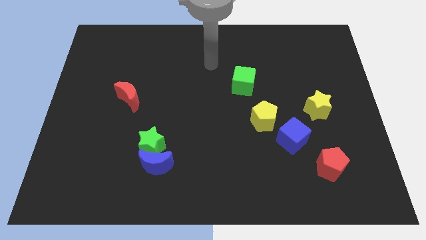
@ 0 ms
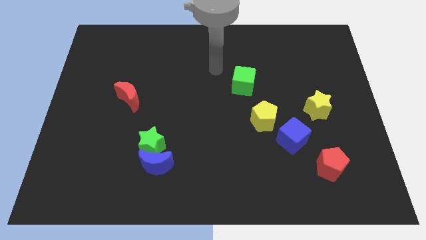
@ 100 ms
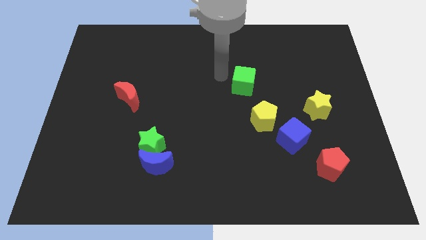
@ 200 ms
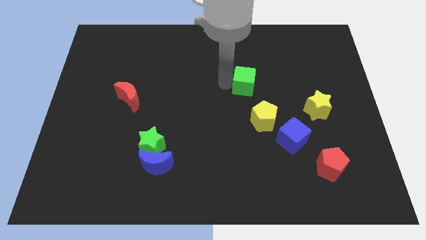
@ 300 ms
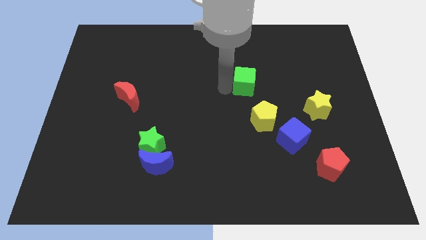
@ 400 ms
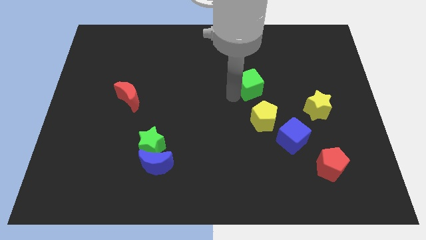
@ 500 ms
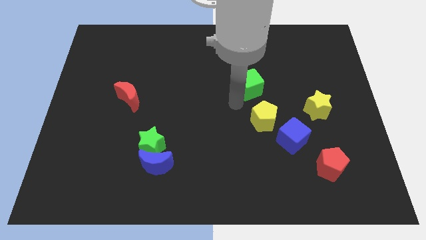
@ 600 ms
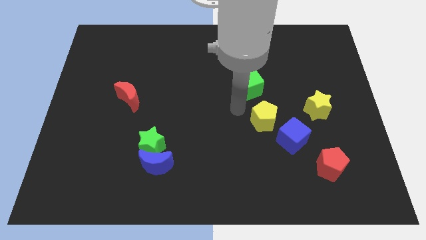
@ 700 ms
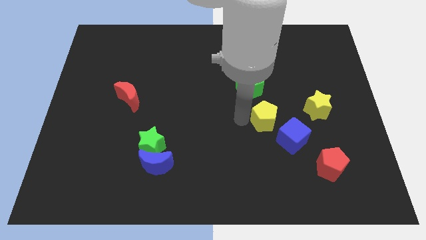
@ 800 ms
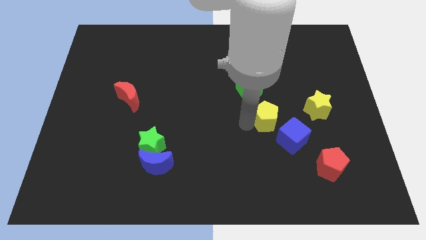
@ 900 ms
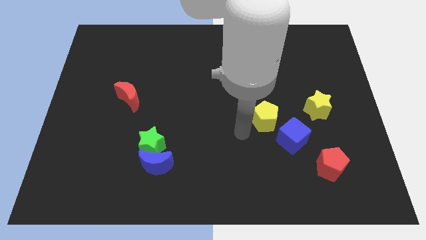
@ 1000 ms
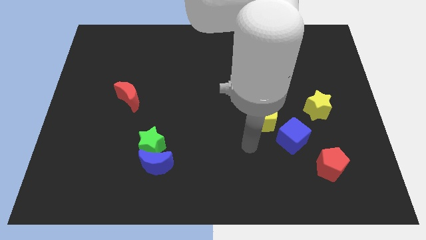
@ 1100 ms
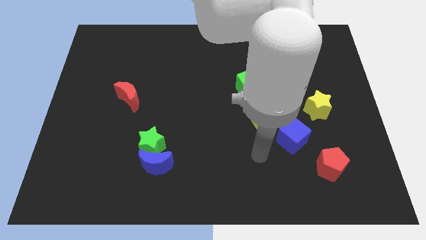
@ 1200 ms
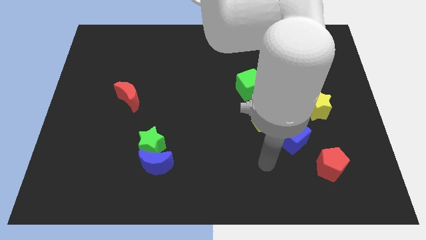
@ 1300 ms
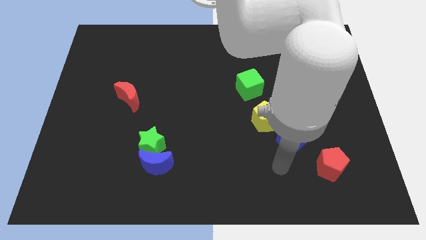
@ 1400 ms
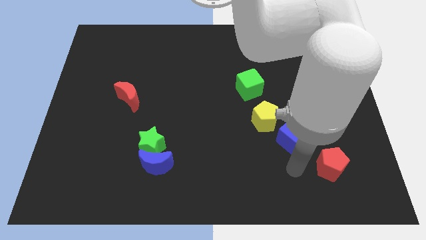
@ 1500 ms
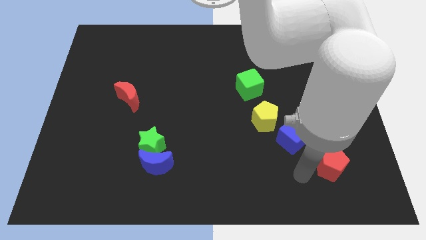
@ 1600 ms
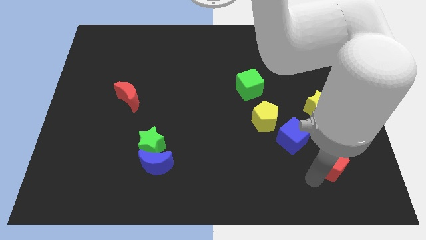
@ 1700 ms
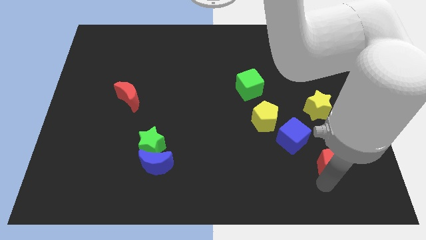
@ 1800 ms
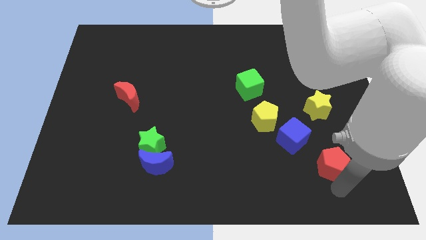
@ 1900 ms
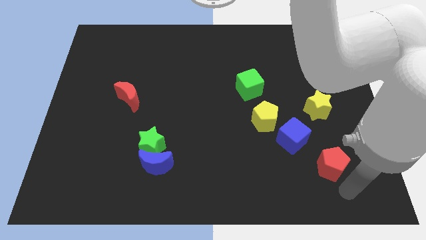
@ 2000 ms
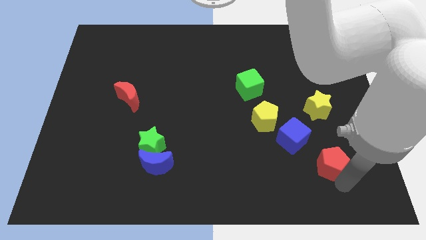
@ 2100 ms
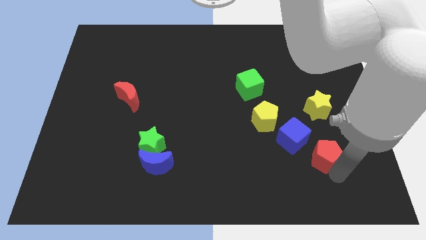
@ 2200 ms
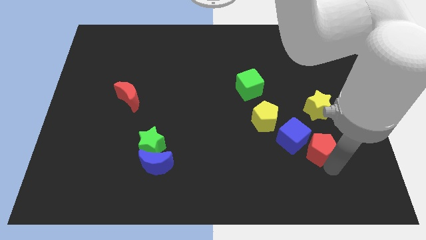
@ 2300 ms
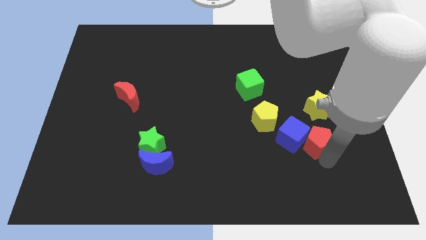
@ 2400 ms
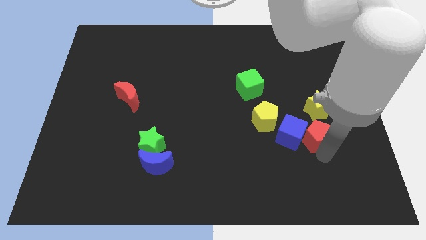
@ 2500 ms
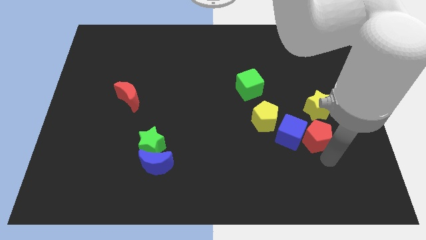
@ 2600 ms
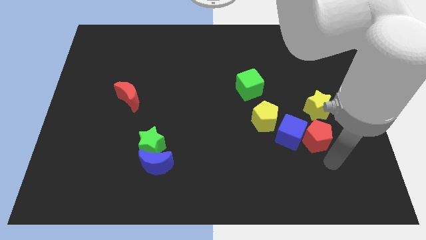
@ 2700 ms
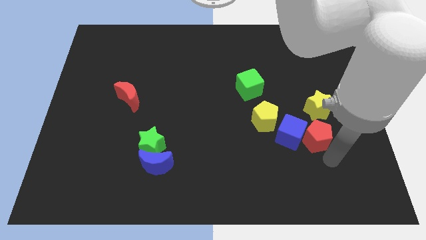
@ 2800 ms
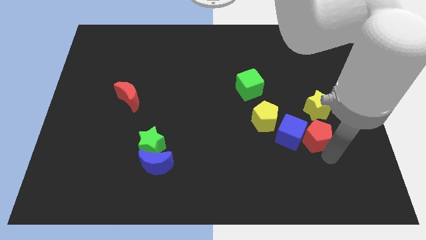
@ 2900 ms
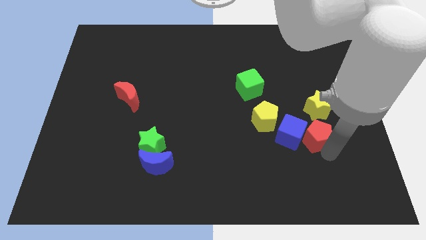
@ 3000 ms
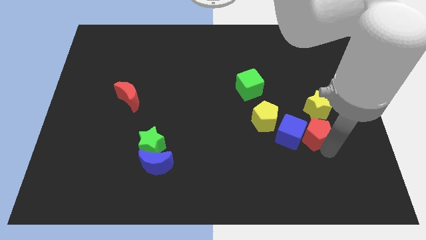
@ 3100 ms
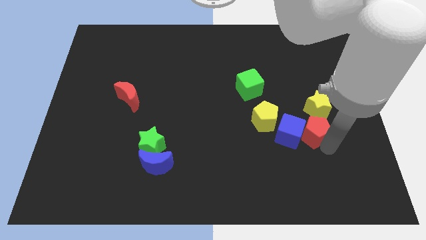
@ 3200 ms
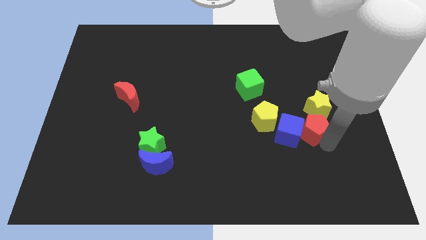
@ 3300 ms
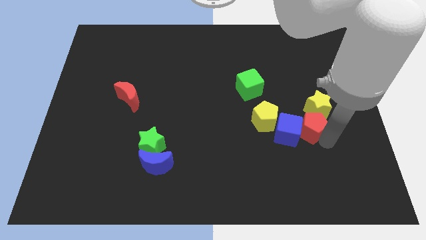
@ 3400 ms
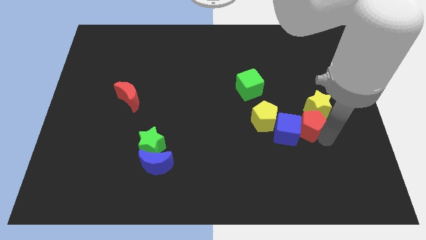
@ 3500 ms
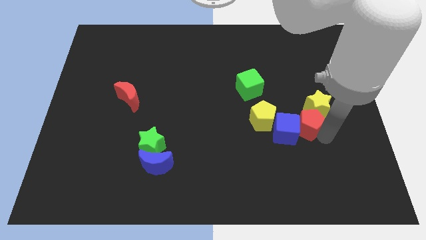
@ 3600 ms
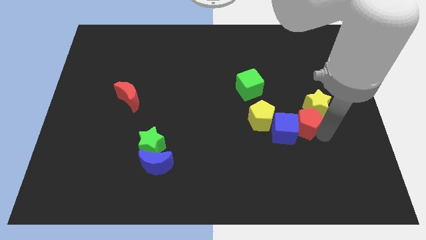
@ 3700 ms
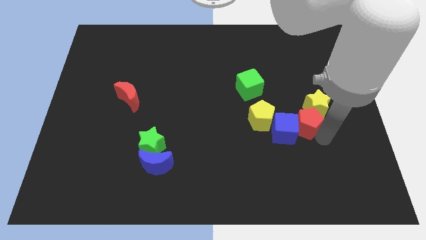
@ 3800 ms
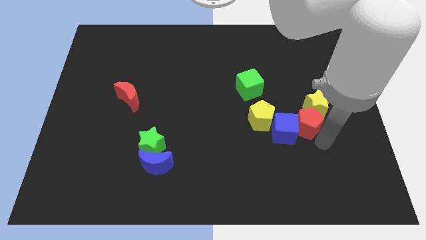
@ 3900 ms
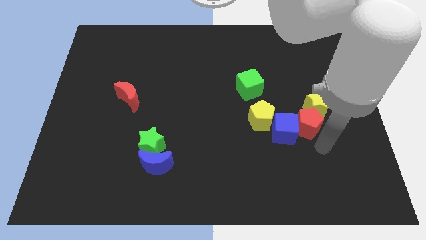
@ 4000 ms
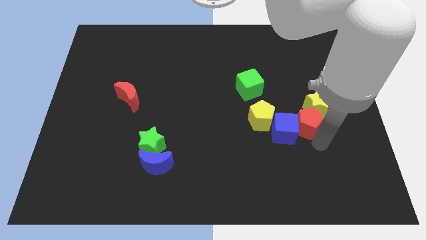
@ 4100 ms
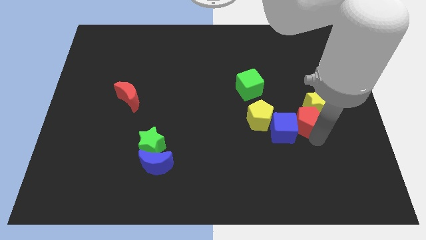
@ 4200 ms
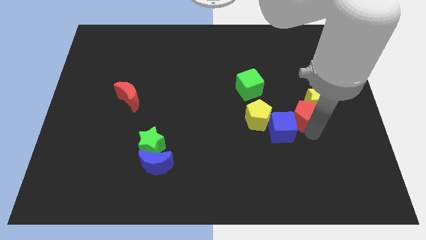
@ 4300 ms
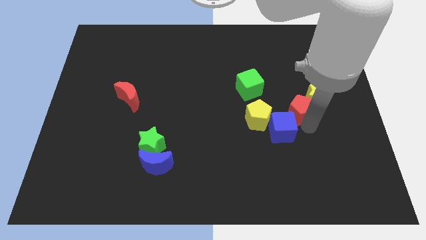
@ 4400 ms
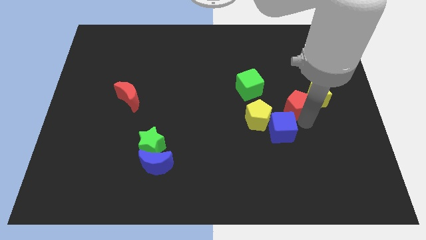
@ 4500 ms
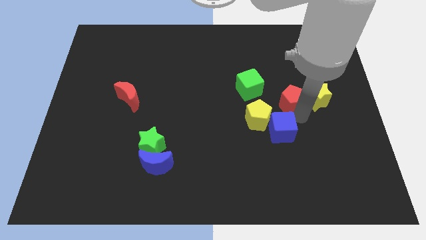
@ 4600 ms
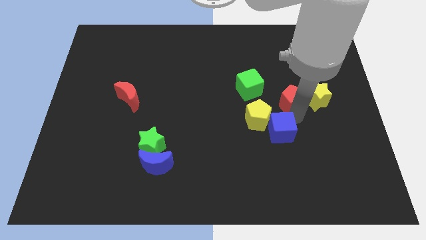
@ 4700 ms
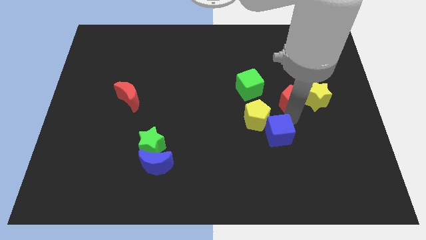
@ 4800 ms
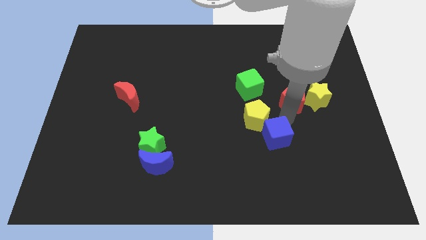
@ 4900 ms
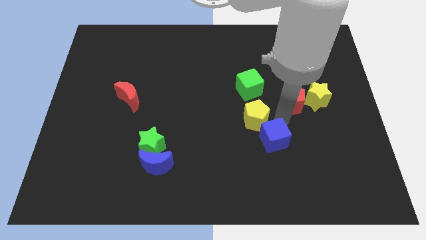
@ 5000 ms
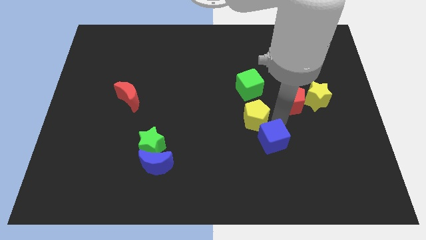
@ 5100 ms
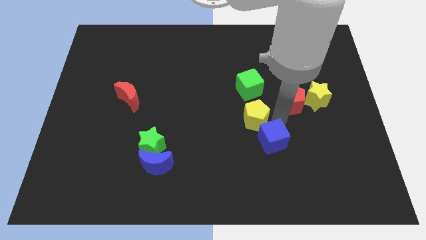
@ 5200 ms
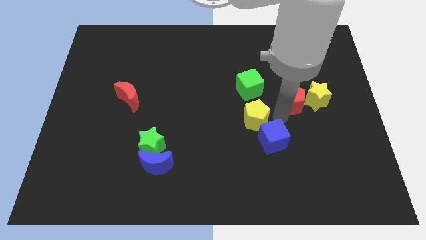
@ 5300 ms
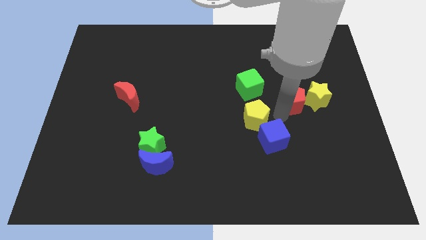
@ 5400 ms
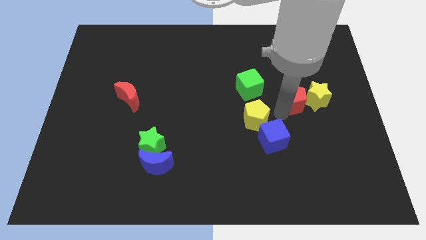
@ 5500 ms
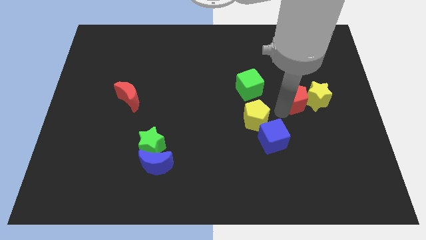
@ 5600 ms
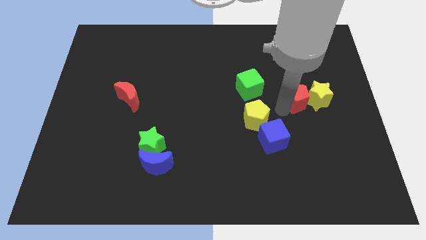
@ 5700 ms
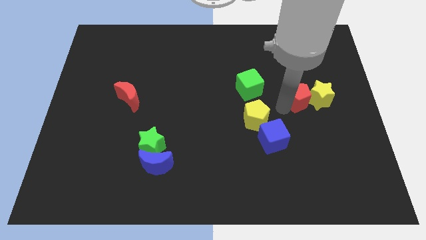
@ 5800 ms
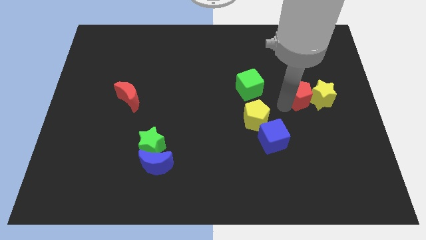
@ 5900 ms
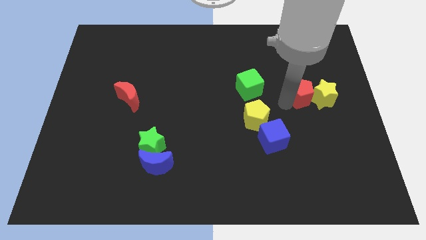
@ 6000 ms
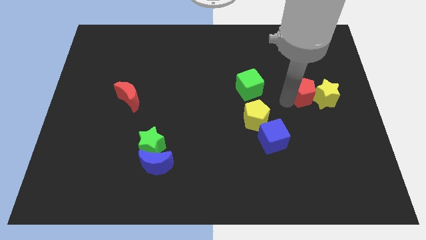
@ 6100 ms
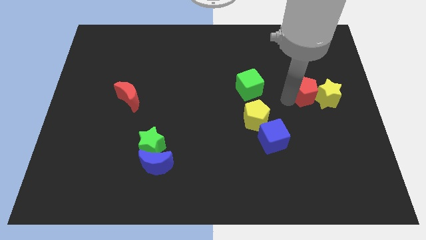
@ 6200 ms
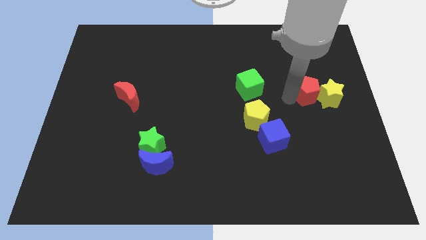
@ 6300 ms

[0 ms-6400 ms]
slide the red pentagon up

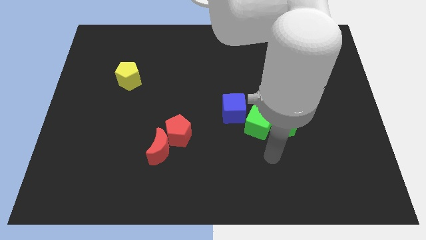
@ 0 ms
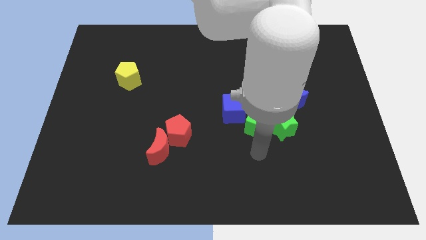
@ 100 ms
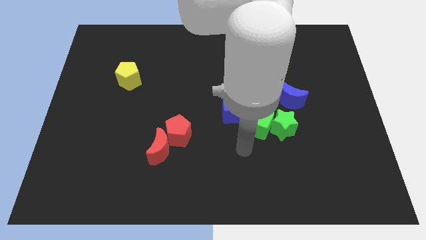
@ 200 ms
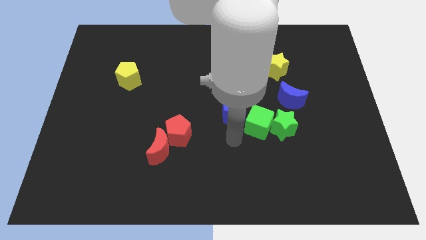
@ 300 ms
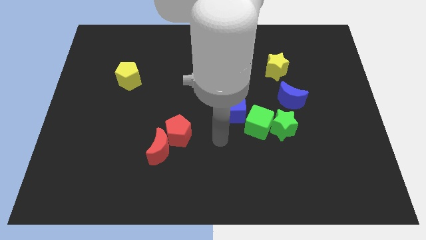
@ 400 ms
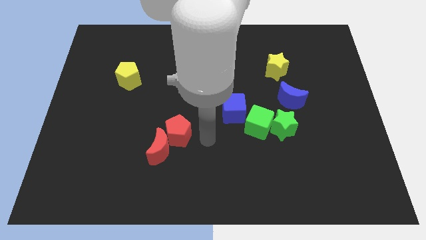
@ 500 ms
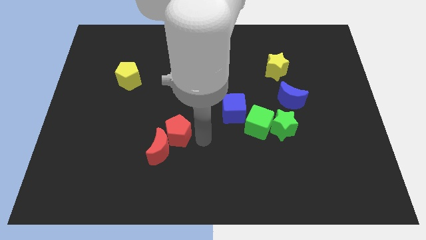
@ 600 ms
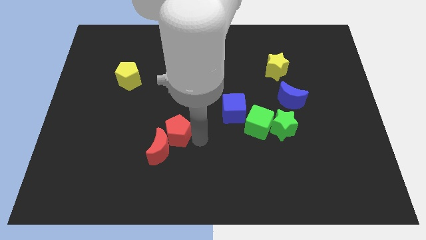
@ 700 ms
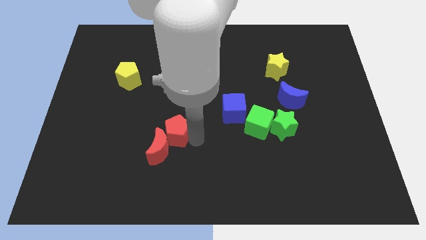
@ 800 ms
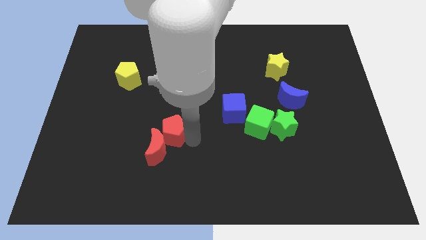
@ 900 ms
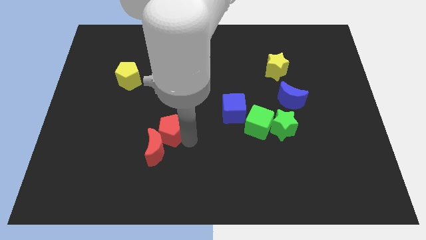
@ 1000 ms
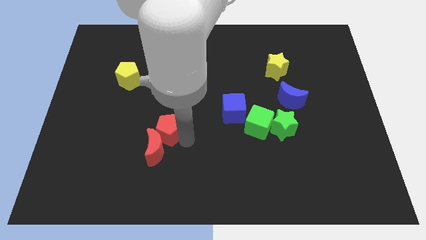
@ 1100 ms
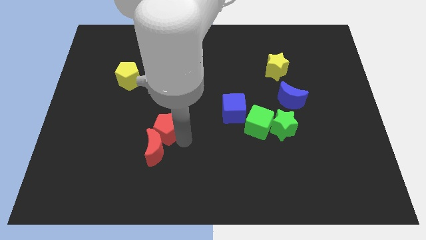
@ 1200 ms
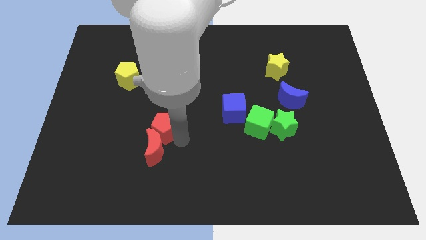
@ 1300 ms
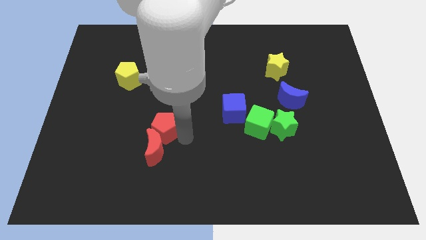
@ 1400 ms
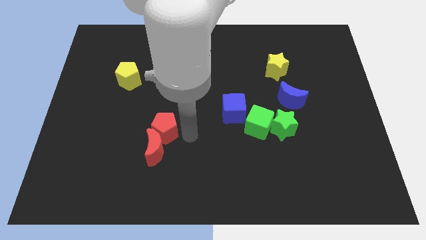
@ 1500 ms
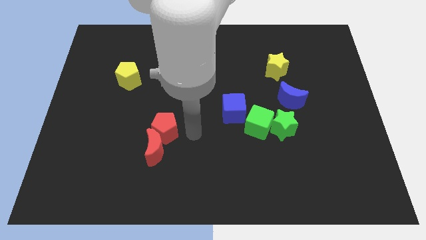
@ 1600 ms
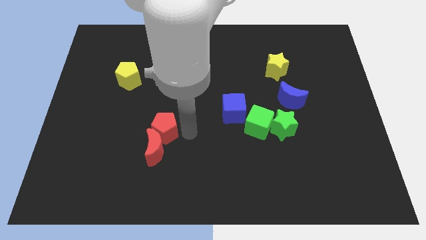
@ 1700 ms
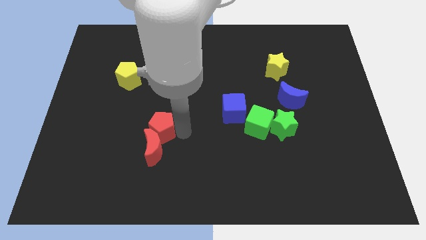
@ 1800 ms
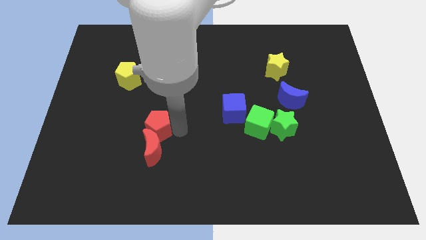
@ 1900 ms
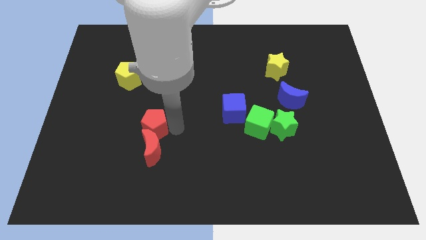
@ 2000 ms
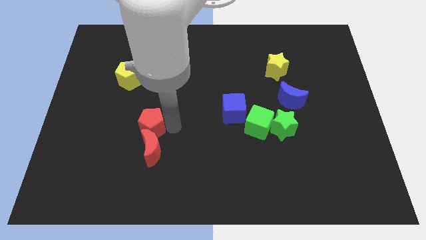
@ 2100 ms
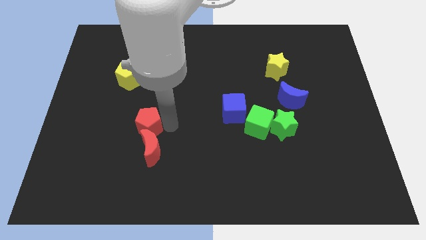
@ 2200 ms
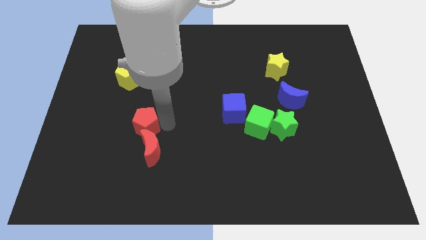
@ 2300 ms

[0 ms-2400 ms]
slightly slide the red pentagon to the left
